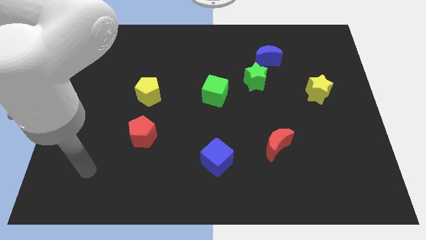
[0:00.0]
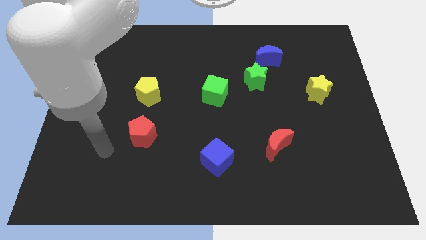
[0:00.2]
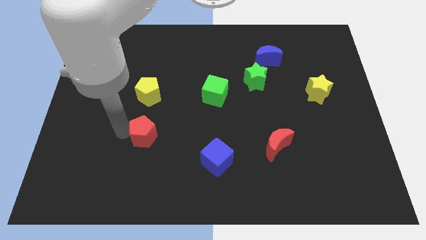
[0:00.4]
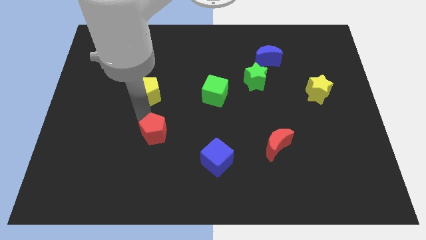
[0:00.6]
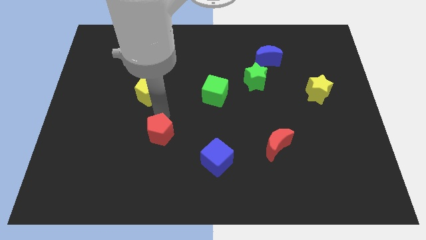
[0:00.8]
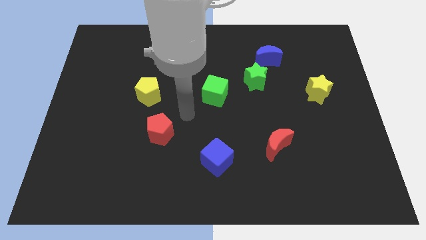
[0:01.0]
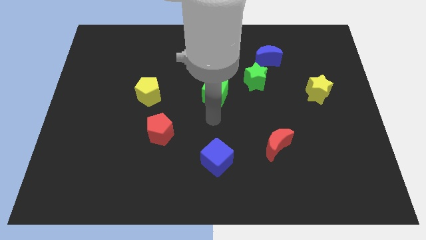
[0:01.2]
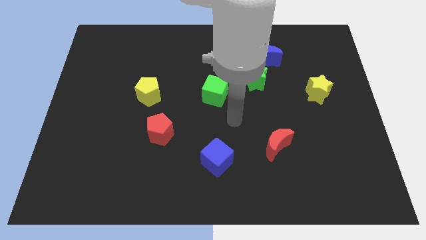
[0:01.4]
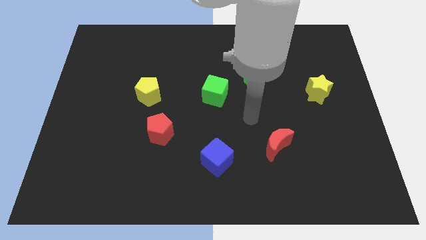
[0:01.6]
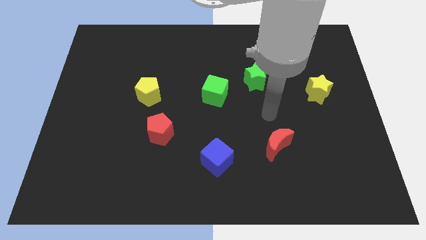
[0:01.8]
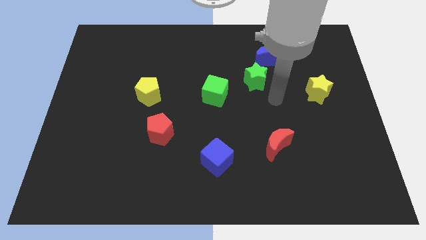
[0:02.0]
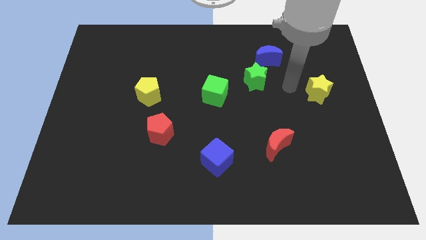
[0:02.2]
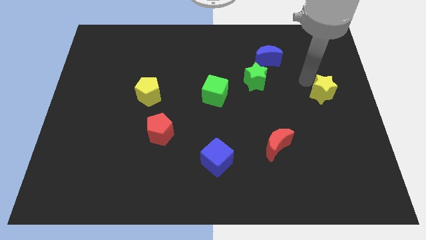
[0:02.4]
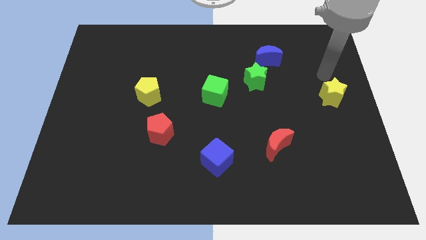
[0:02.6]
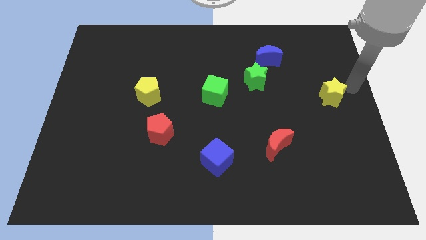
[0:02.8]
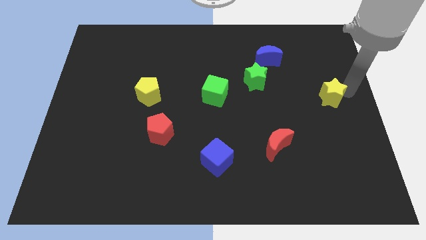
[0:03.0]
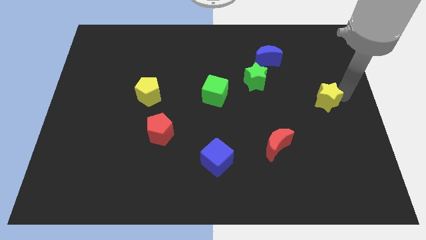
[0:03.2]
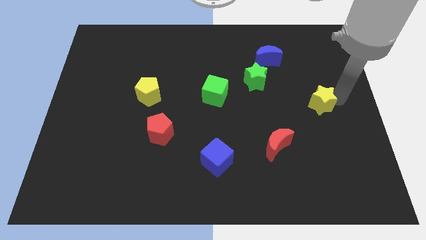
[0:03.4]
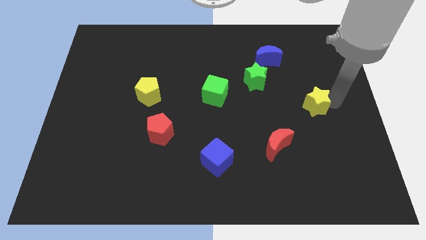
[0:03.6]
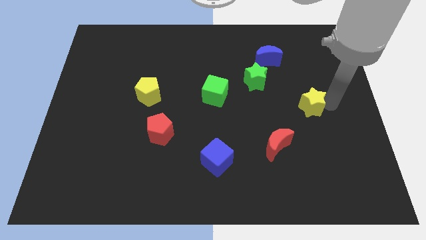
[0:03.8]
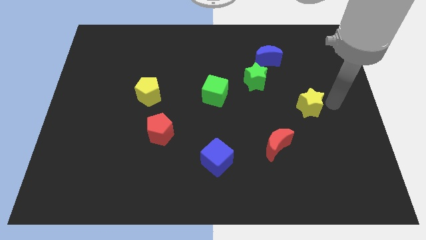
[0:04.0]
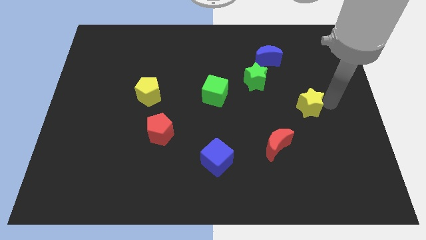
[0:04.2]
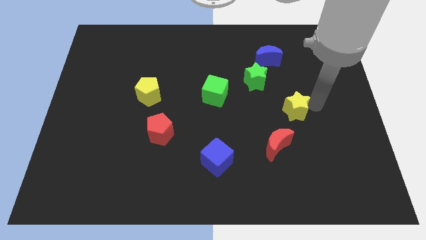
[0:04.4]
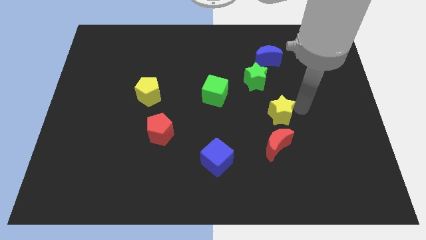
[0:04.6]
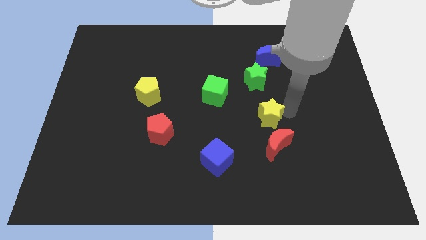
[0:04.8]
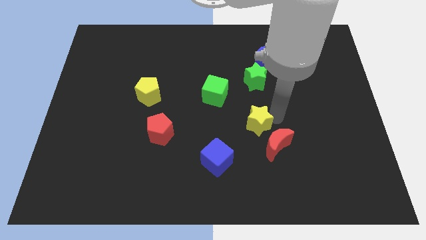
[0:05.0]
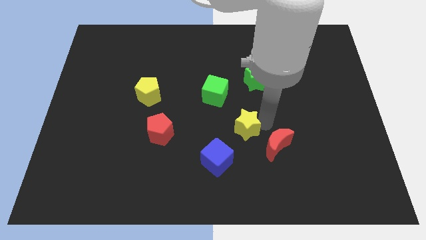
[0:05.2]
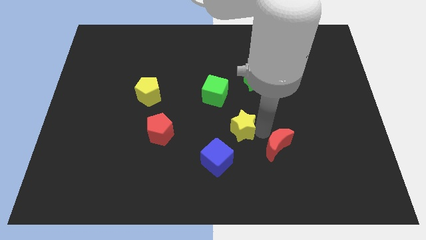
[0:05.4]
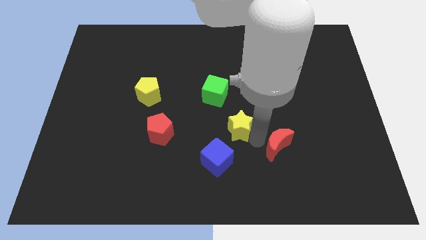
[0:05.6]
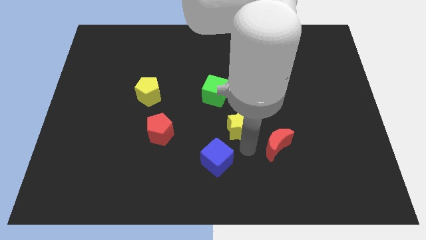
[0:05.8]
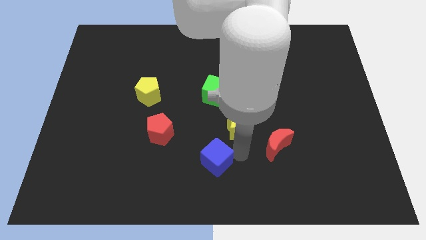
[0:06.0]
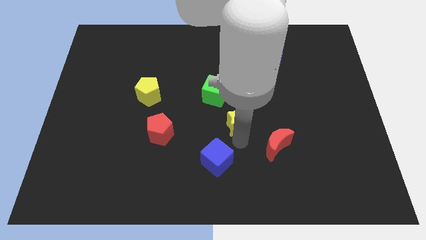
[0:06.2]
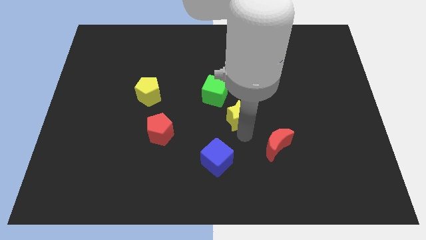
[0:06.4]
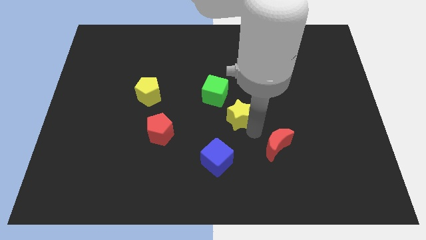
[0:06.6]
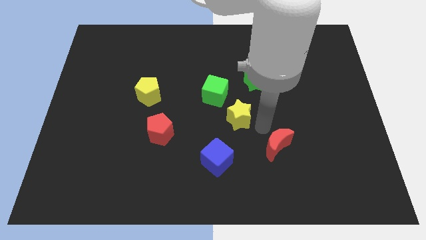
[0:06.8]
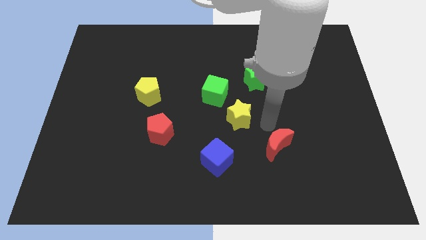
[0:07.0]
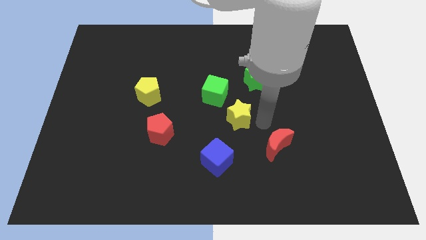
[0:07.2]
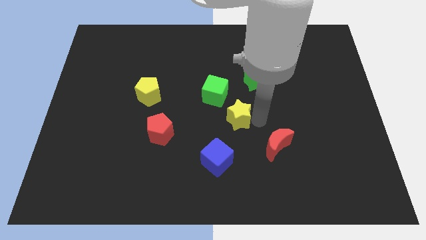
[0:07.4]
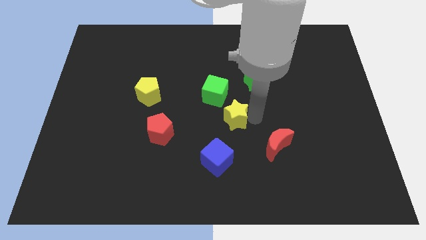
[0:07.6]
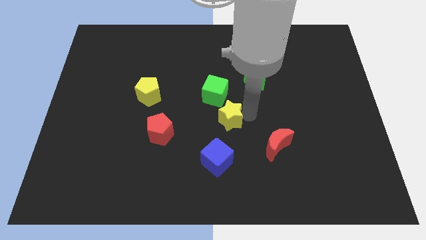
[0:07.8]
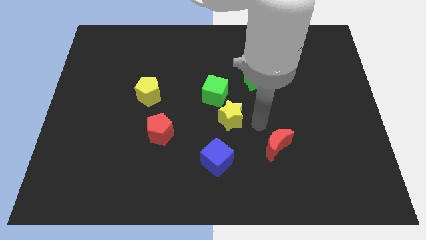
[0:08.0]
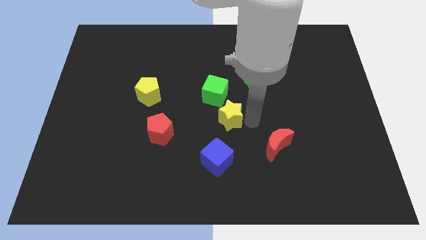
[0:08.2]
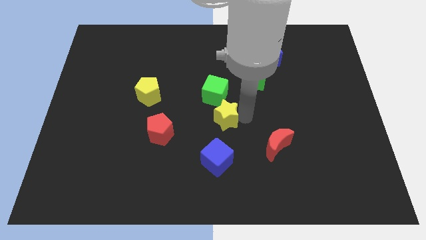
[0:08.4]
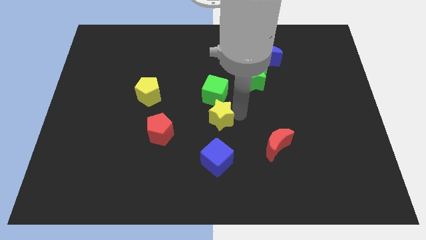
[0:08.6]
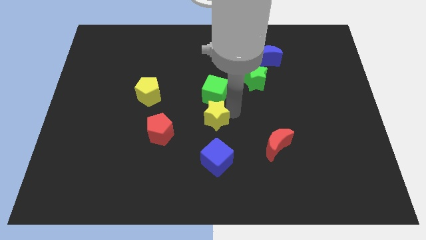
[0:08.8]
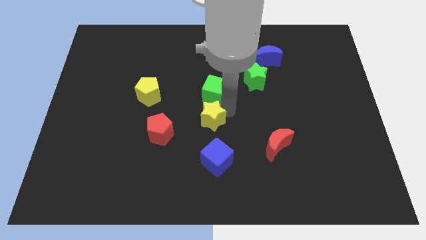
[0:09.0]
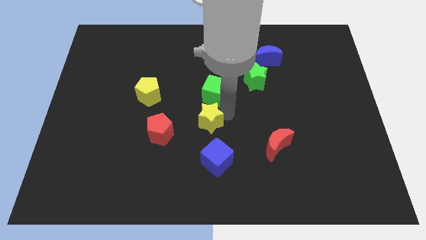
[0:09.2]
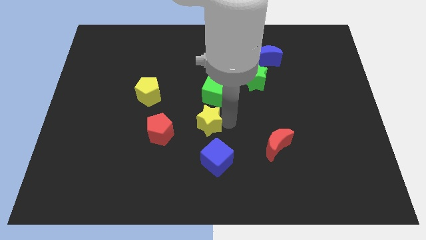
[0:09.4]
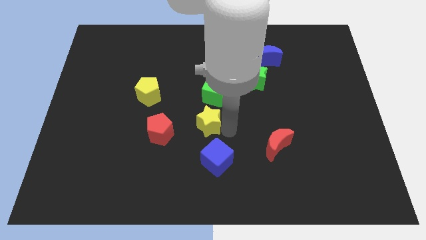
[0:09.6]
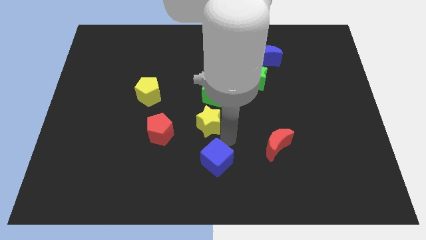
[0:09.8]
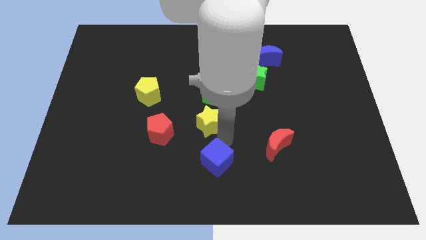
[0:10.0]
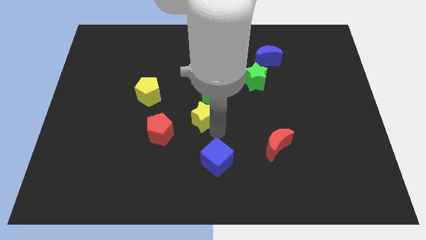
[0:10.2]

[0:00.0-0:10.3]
put the yellow star to the top right side of the red pentagon

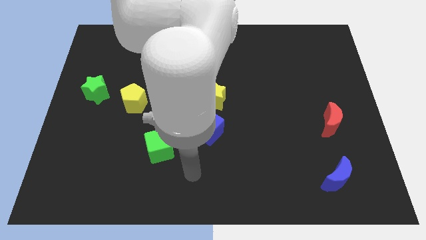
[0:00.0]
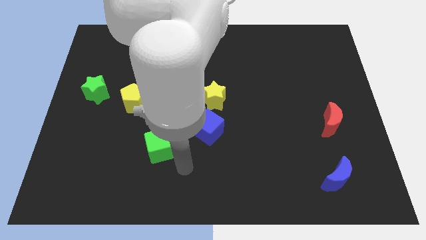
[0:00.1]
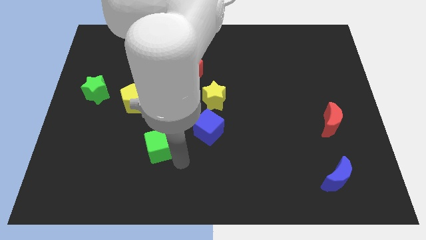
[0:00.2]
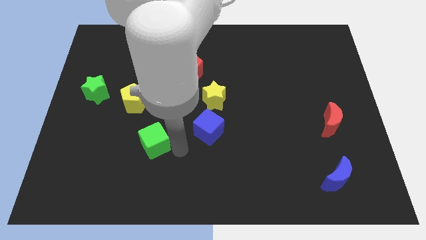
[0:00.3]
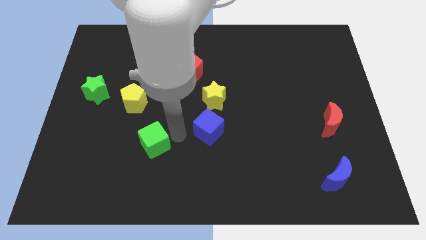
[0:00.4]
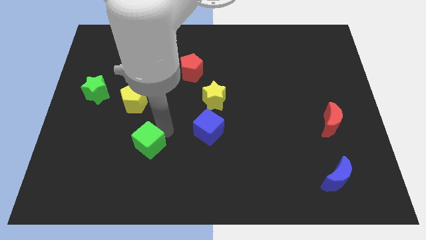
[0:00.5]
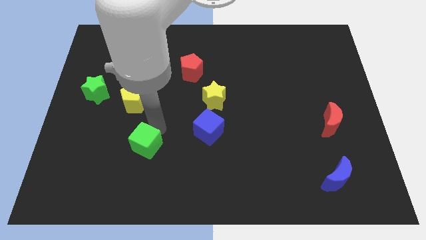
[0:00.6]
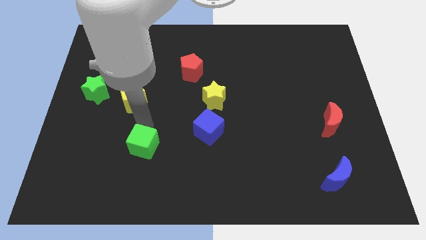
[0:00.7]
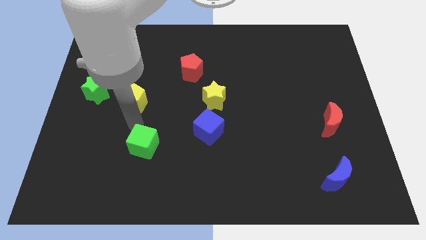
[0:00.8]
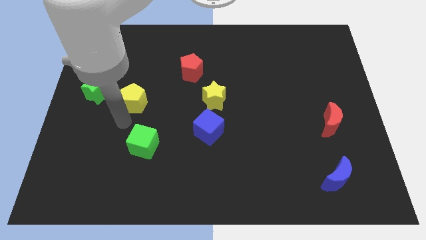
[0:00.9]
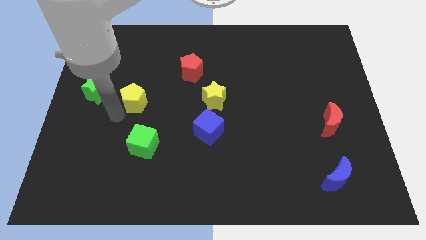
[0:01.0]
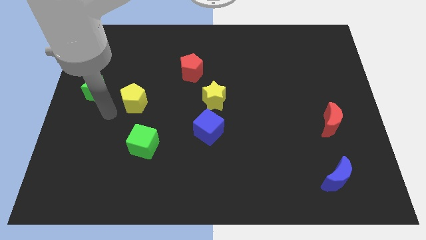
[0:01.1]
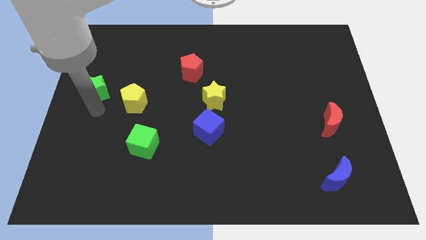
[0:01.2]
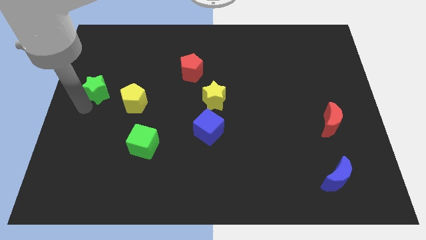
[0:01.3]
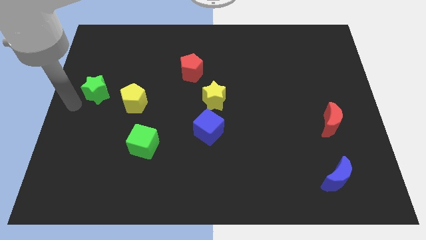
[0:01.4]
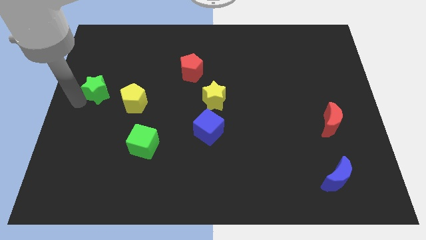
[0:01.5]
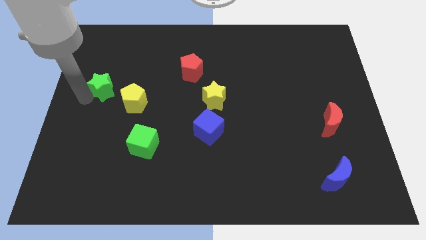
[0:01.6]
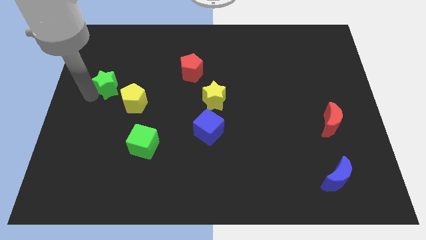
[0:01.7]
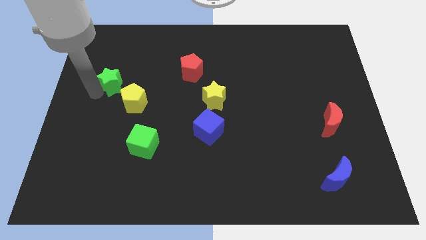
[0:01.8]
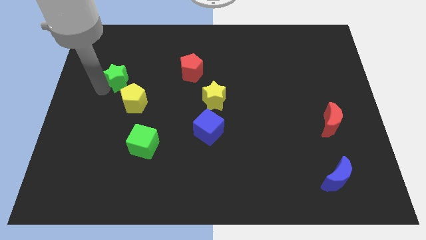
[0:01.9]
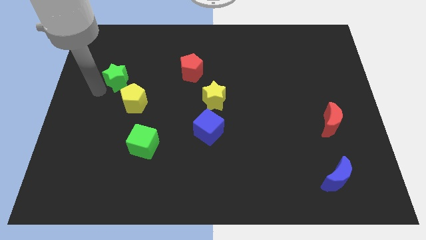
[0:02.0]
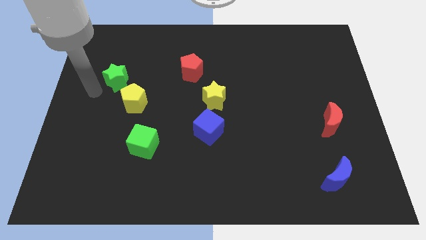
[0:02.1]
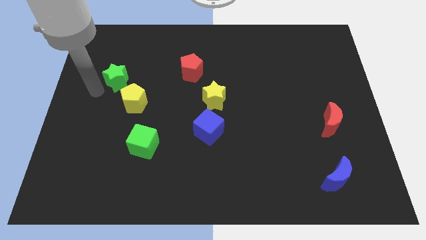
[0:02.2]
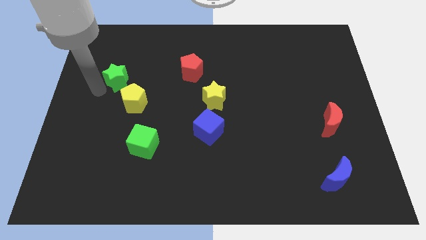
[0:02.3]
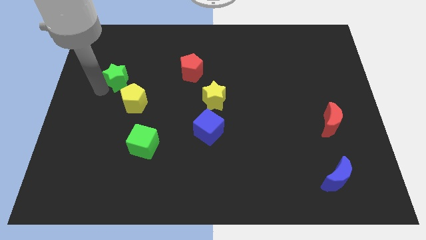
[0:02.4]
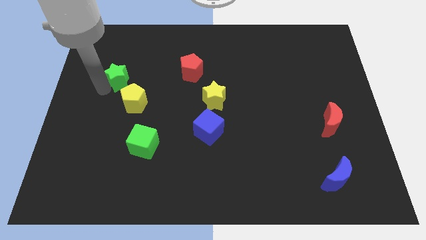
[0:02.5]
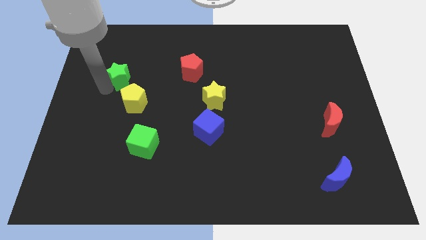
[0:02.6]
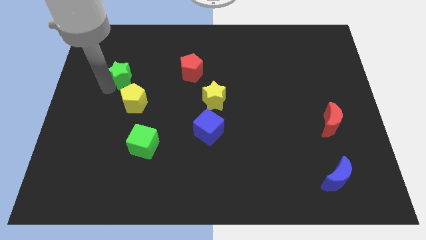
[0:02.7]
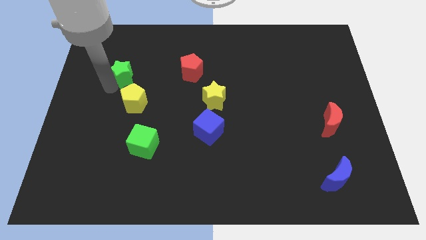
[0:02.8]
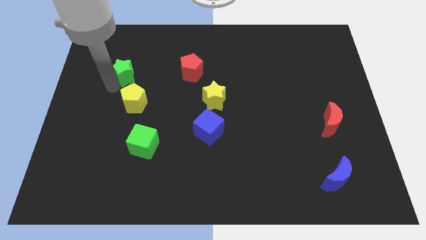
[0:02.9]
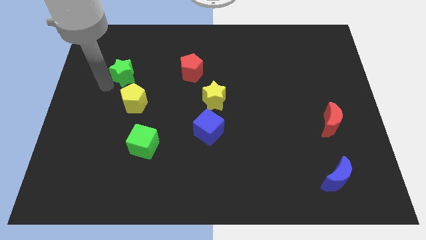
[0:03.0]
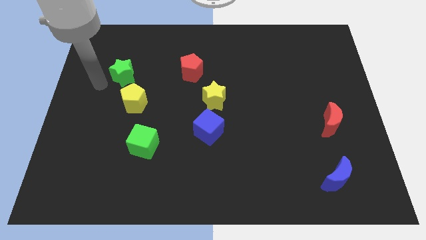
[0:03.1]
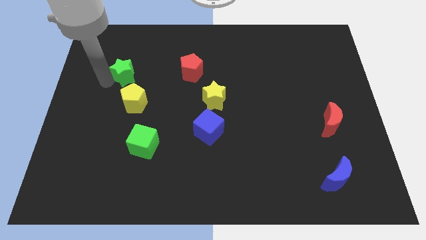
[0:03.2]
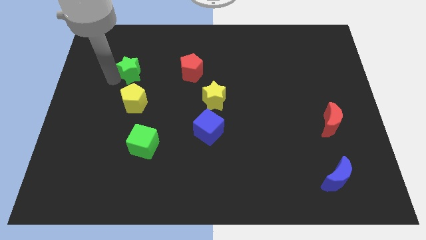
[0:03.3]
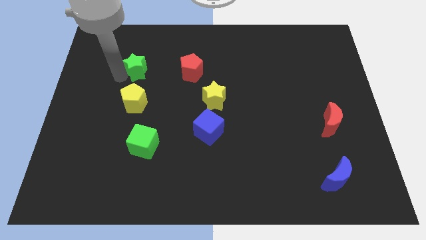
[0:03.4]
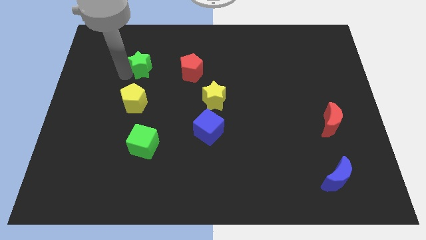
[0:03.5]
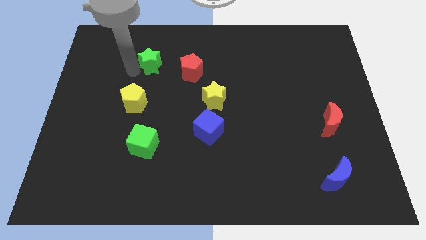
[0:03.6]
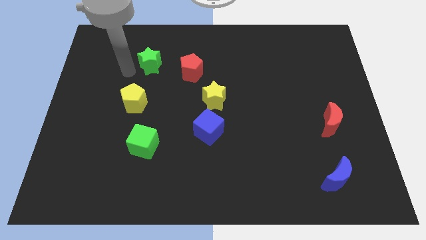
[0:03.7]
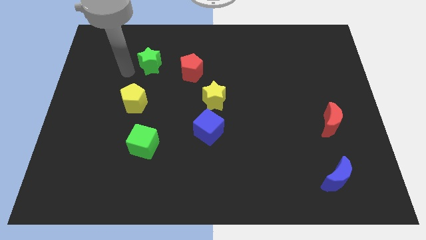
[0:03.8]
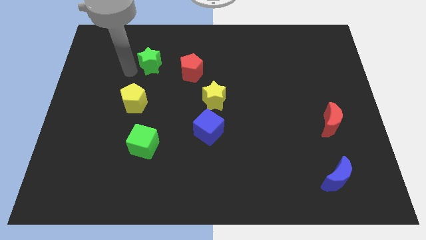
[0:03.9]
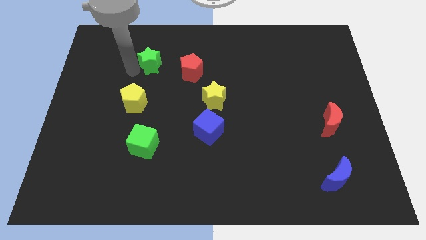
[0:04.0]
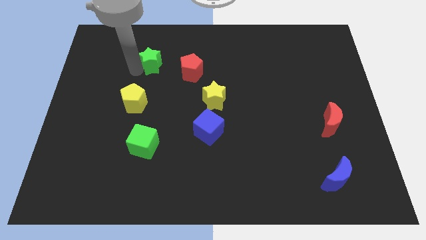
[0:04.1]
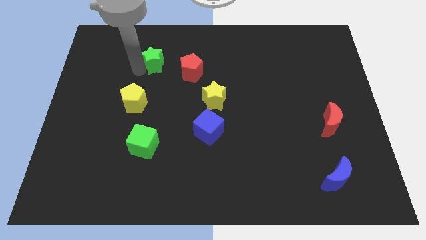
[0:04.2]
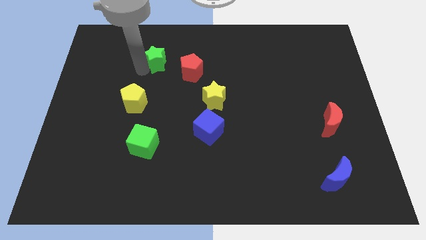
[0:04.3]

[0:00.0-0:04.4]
push the green star diagonally up and to the left of the red pentagon
